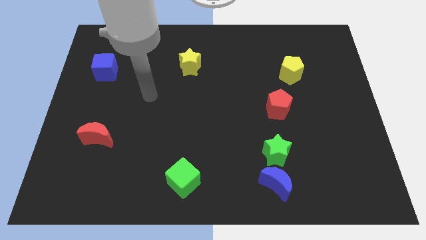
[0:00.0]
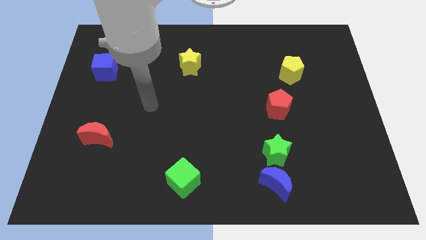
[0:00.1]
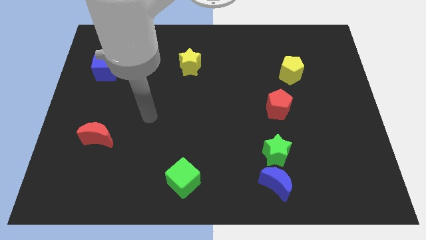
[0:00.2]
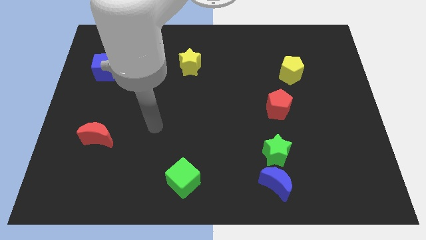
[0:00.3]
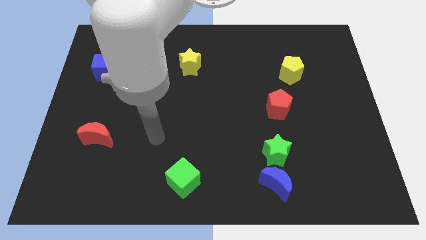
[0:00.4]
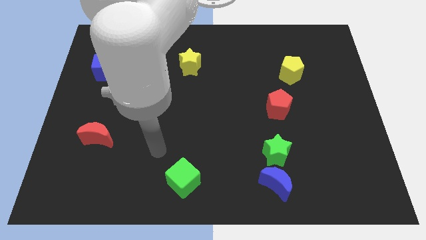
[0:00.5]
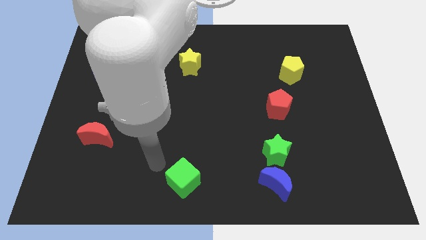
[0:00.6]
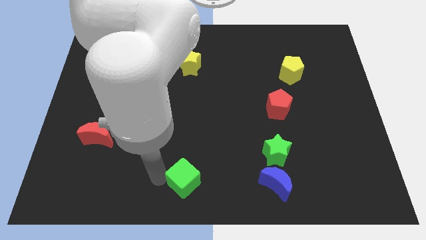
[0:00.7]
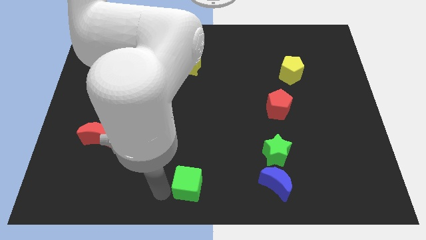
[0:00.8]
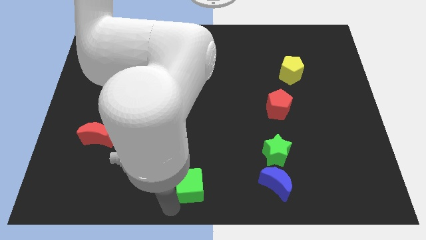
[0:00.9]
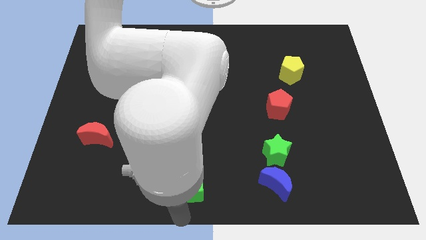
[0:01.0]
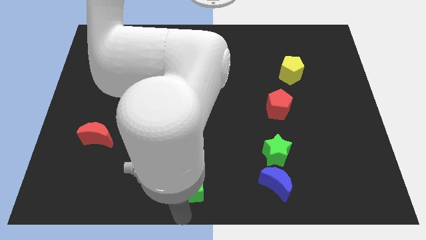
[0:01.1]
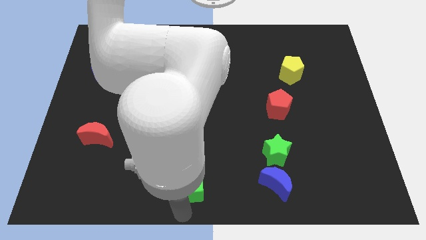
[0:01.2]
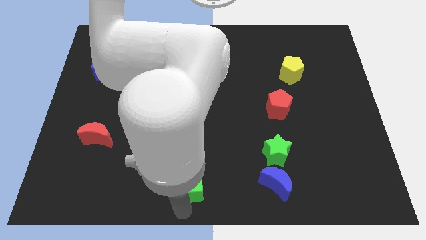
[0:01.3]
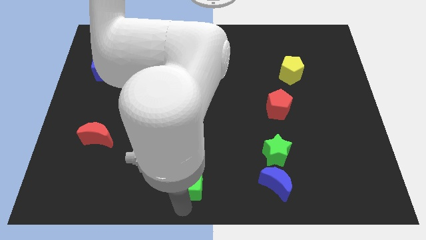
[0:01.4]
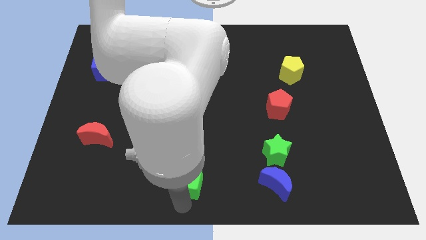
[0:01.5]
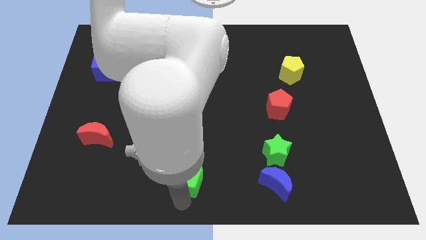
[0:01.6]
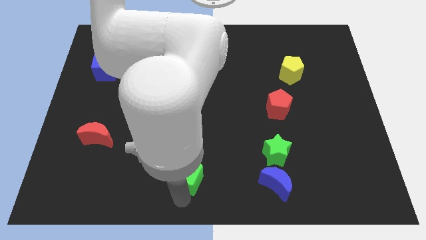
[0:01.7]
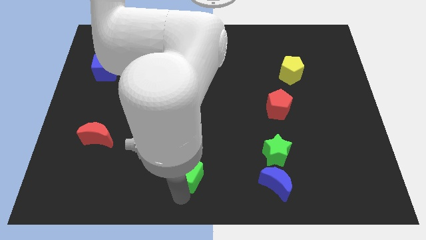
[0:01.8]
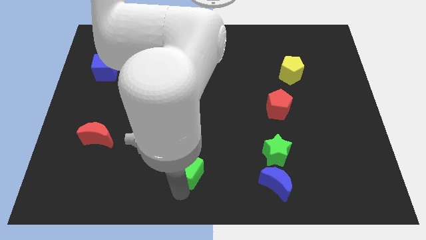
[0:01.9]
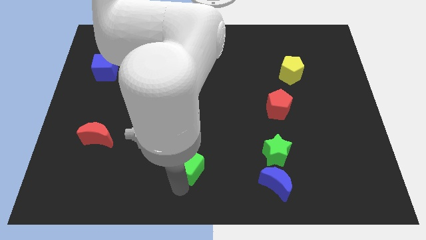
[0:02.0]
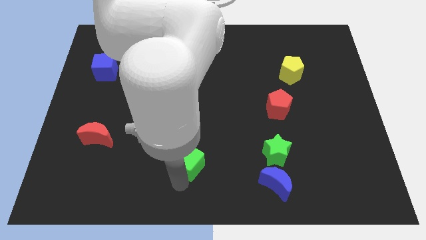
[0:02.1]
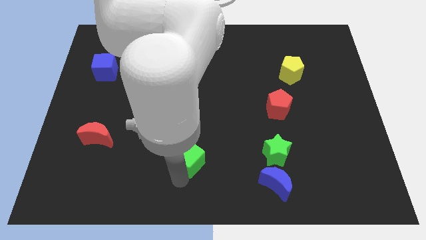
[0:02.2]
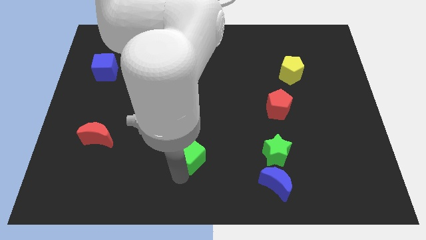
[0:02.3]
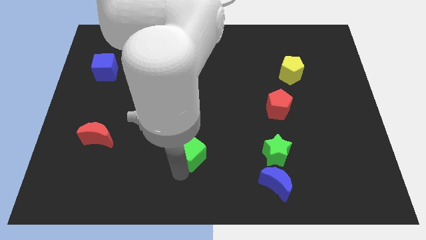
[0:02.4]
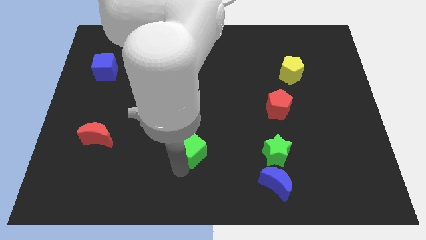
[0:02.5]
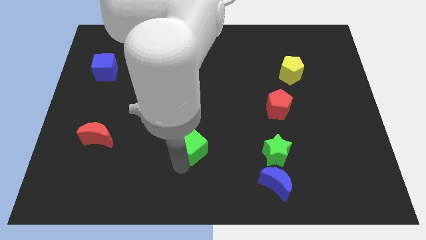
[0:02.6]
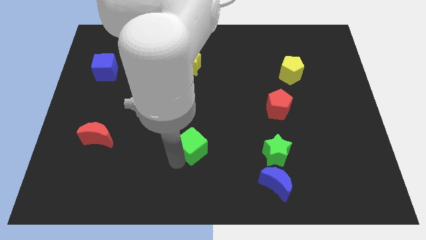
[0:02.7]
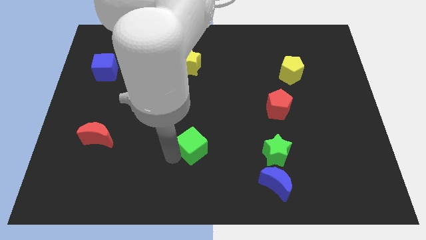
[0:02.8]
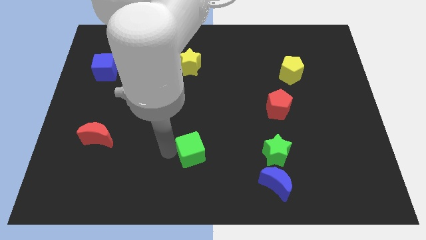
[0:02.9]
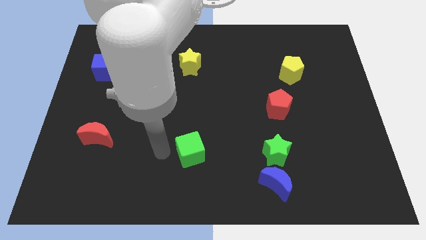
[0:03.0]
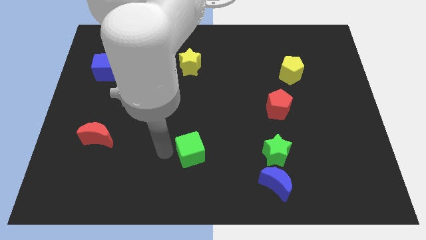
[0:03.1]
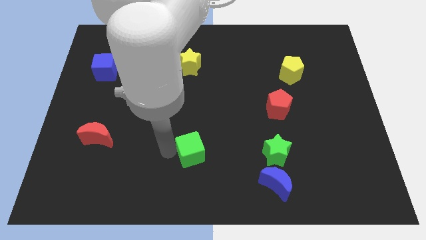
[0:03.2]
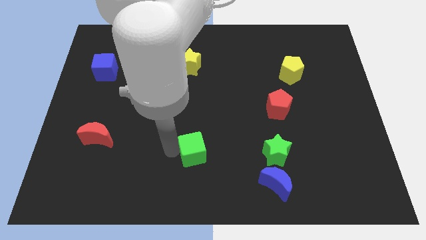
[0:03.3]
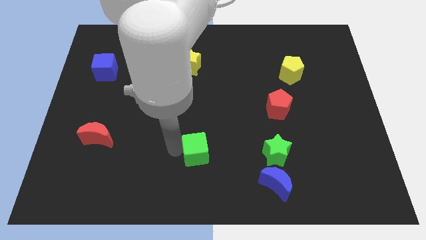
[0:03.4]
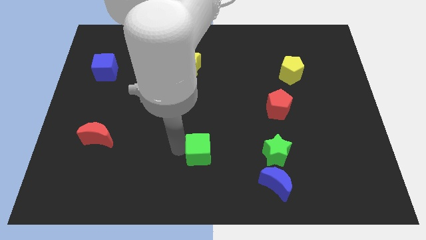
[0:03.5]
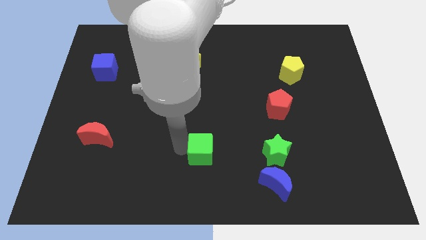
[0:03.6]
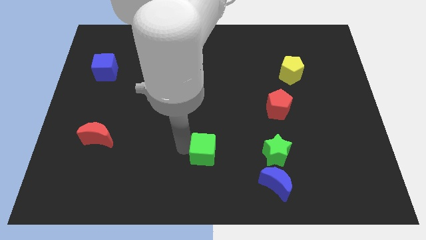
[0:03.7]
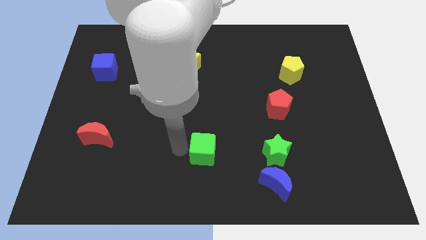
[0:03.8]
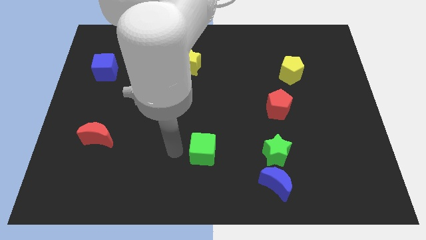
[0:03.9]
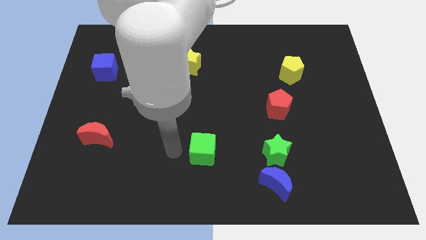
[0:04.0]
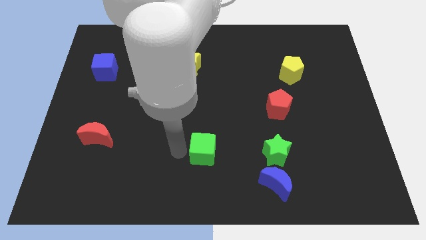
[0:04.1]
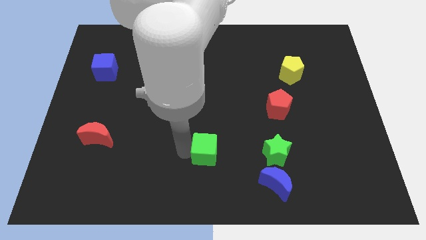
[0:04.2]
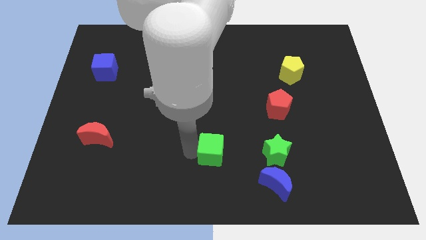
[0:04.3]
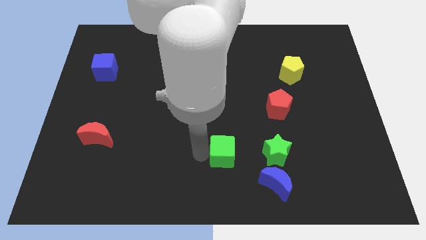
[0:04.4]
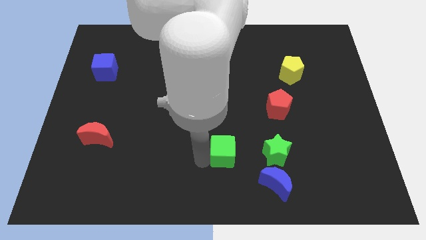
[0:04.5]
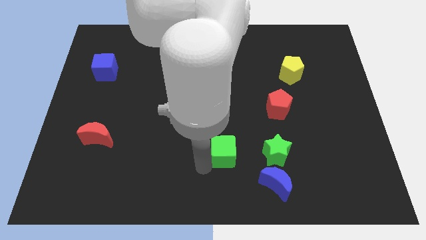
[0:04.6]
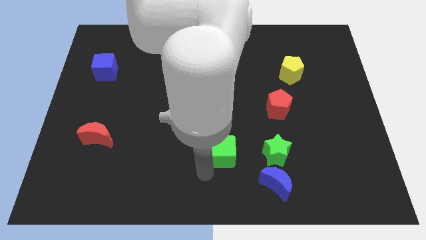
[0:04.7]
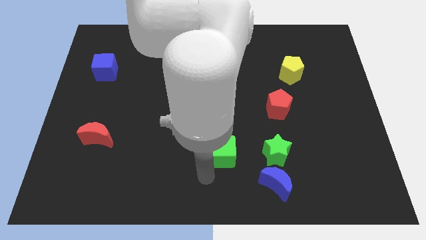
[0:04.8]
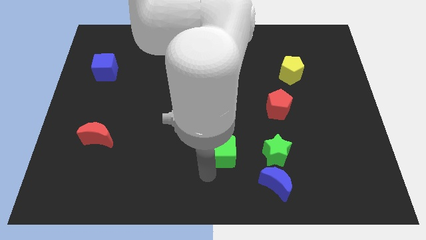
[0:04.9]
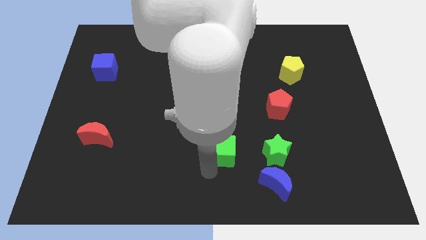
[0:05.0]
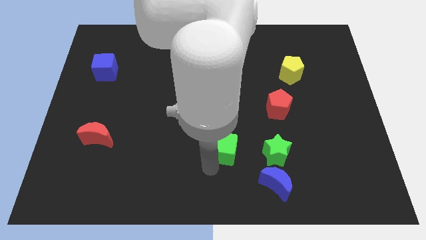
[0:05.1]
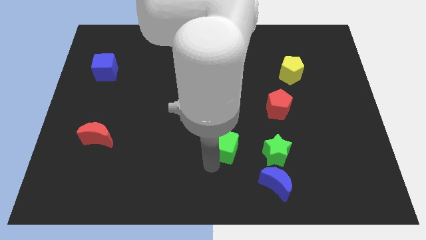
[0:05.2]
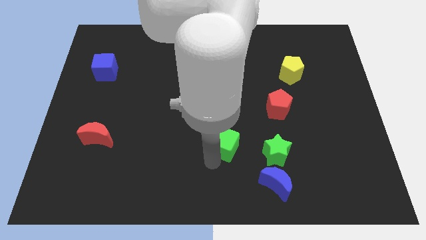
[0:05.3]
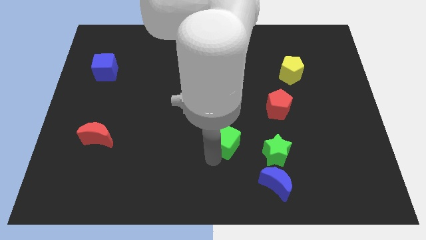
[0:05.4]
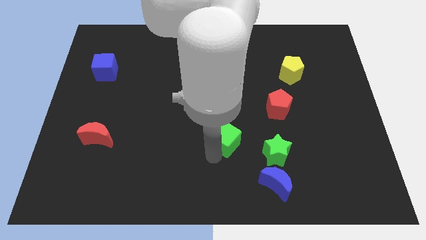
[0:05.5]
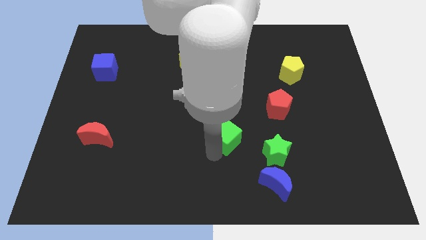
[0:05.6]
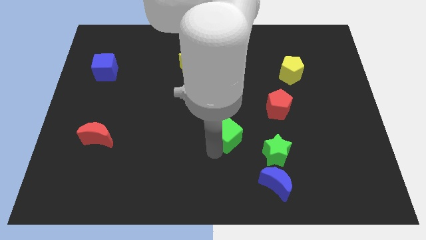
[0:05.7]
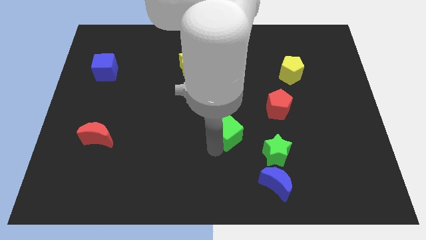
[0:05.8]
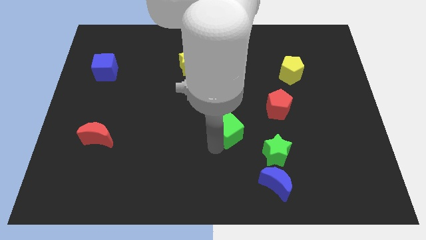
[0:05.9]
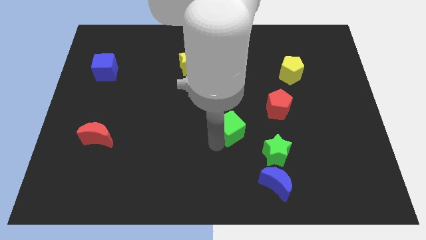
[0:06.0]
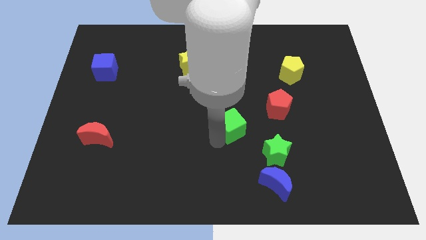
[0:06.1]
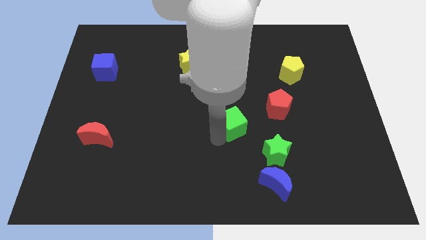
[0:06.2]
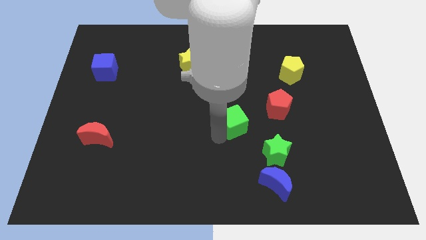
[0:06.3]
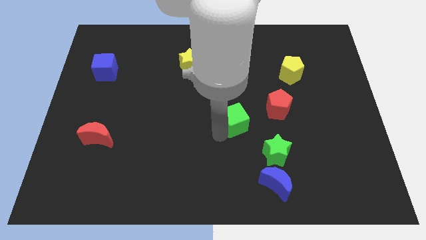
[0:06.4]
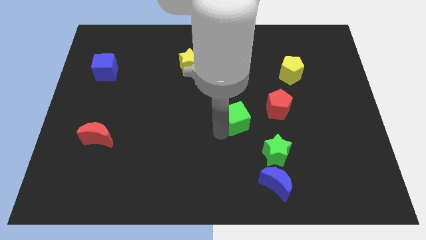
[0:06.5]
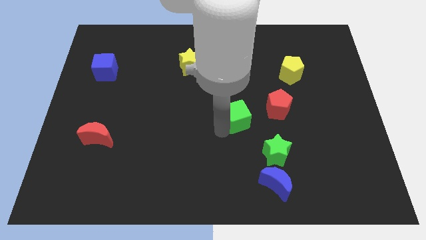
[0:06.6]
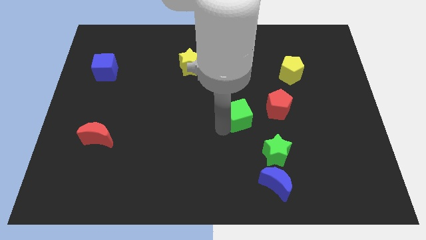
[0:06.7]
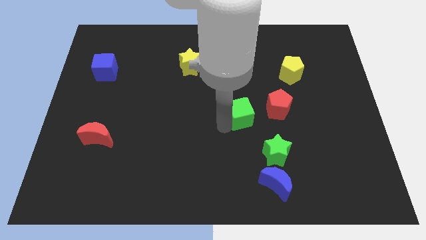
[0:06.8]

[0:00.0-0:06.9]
slide the green cube up and then right

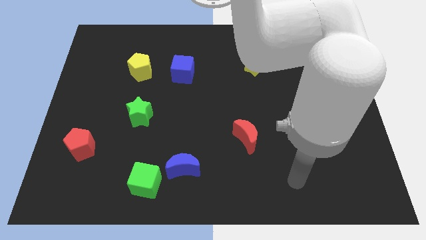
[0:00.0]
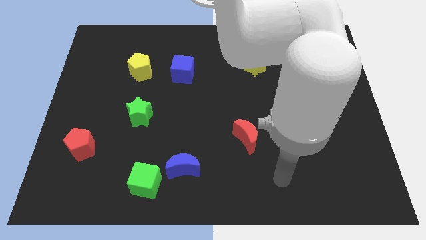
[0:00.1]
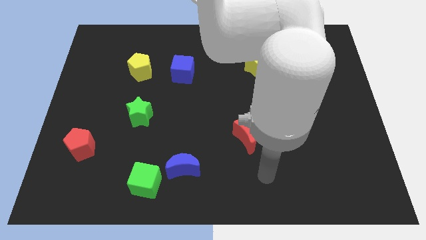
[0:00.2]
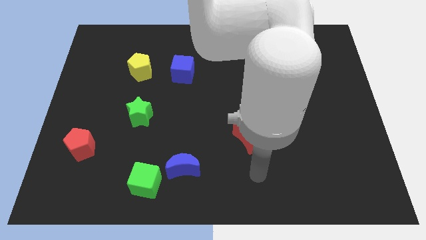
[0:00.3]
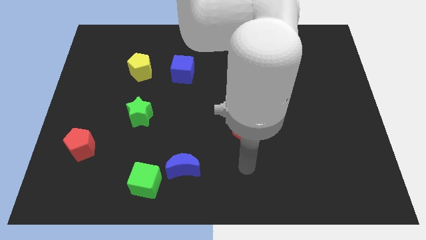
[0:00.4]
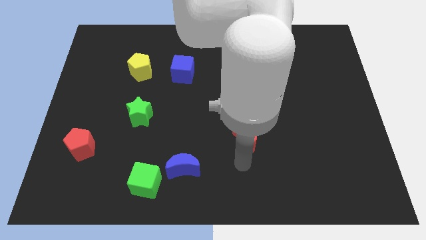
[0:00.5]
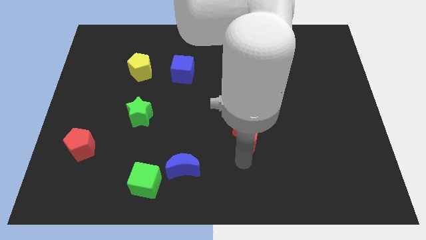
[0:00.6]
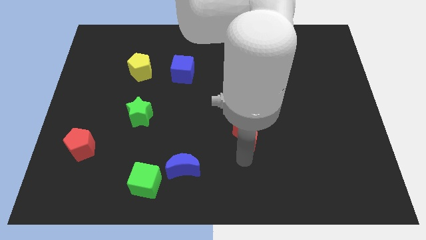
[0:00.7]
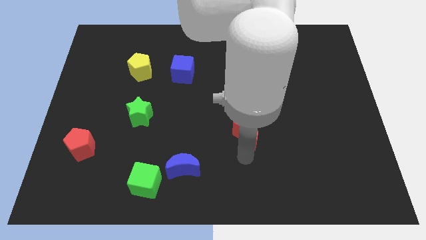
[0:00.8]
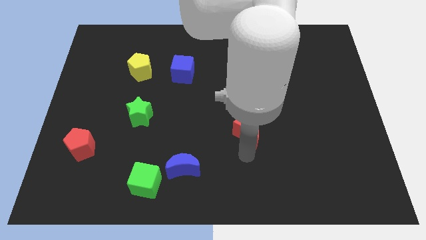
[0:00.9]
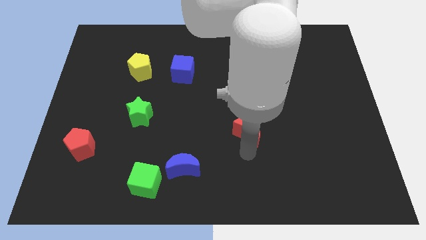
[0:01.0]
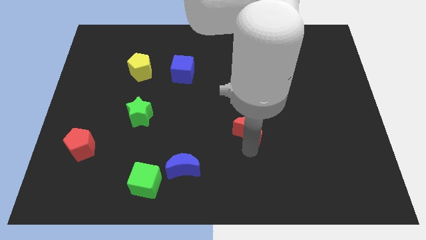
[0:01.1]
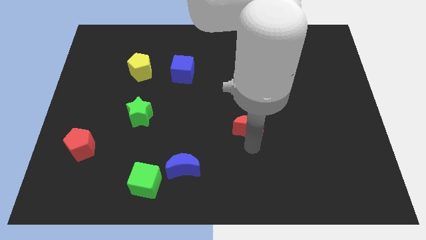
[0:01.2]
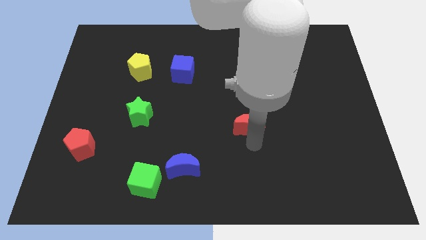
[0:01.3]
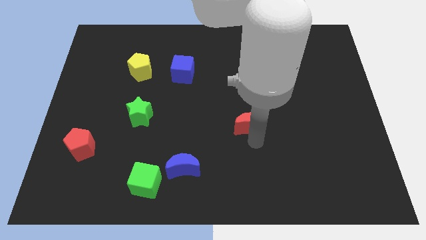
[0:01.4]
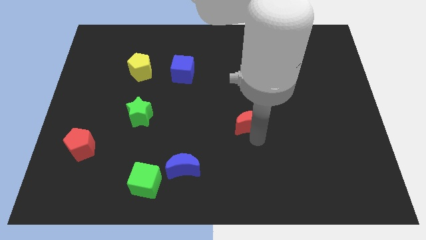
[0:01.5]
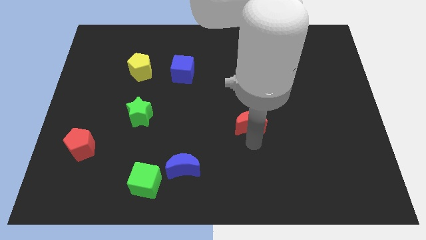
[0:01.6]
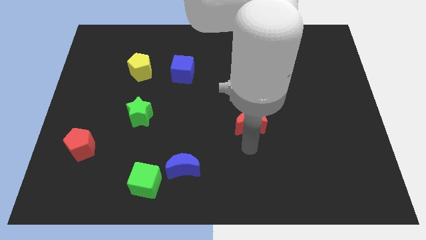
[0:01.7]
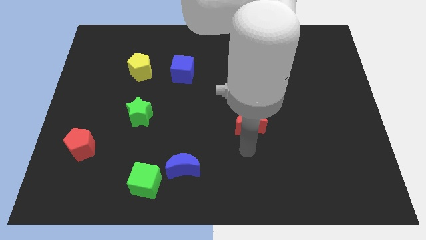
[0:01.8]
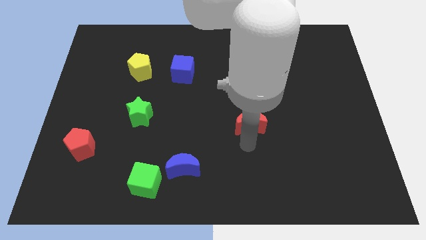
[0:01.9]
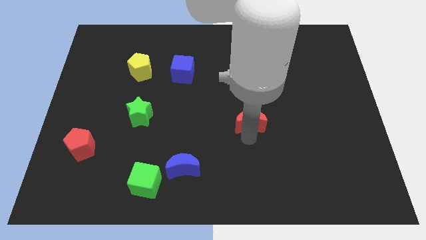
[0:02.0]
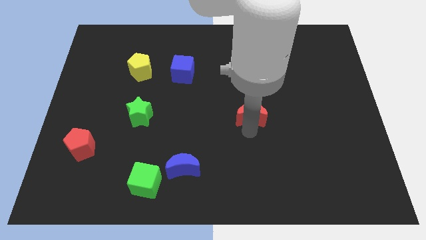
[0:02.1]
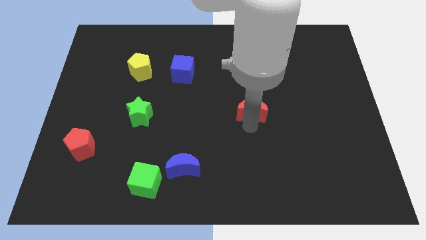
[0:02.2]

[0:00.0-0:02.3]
slide the red moon up slightly
